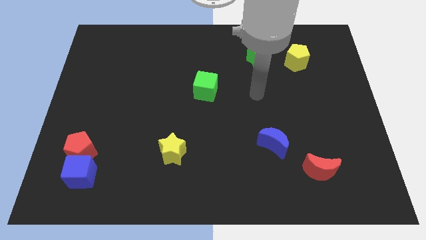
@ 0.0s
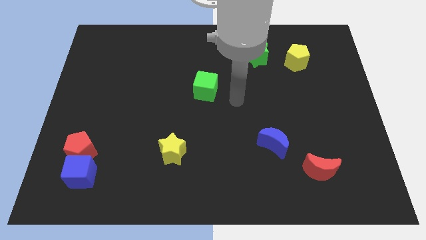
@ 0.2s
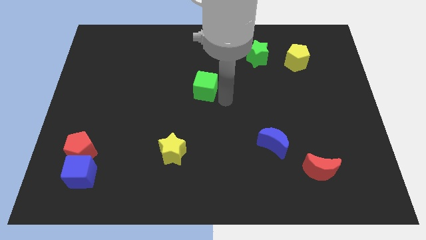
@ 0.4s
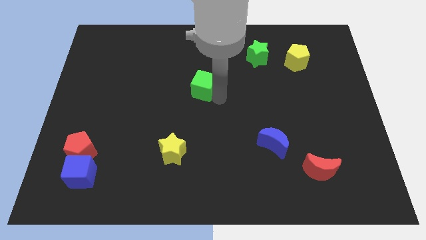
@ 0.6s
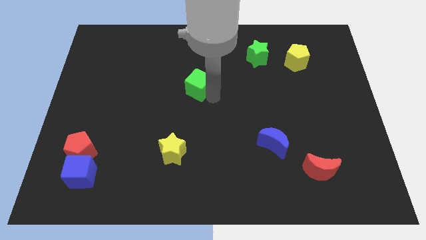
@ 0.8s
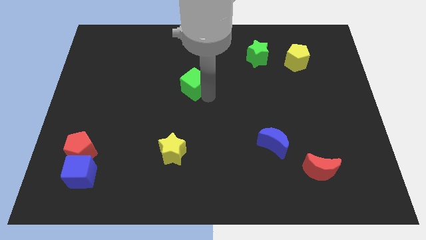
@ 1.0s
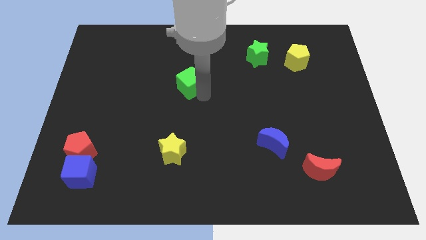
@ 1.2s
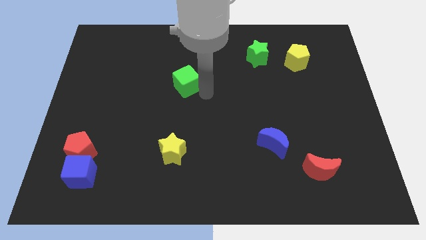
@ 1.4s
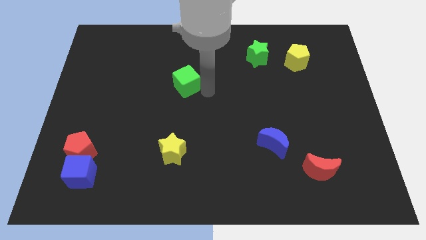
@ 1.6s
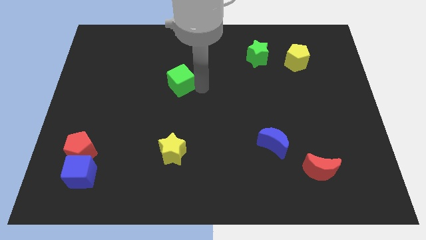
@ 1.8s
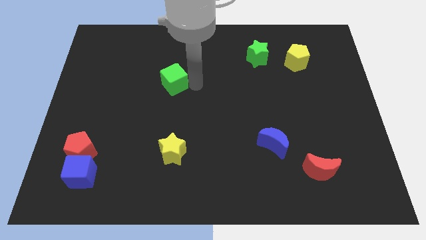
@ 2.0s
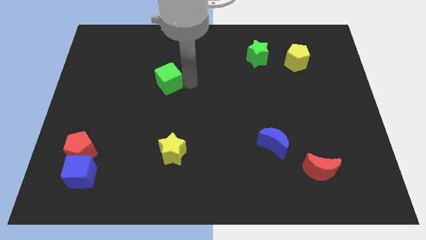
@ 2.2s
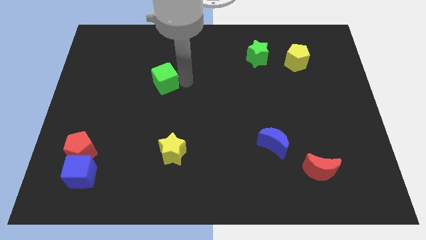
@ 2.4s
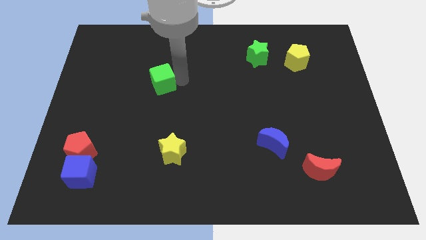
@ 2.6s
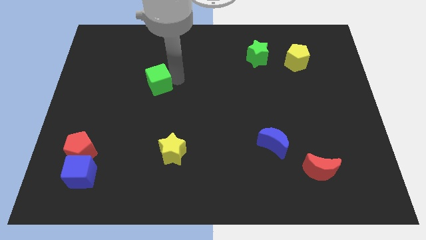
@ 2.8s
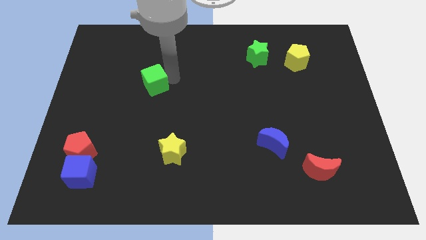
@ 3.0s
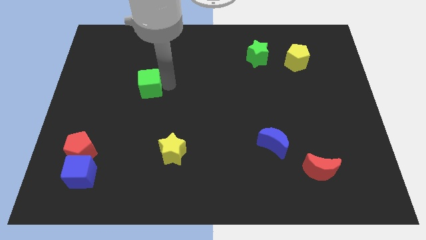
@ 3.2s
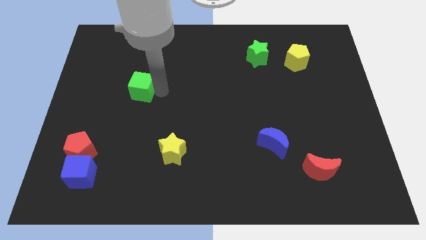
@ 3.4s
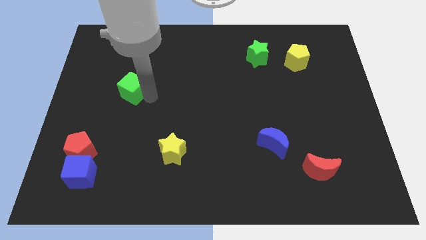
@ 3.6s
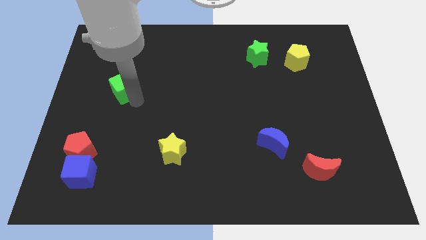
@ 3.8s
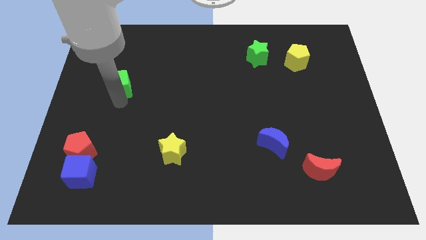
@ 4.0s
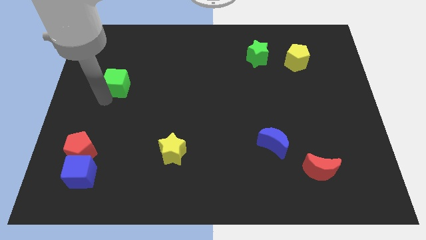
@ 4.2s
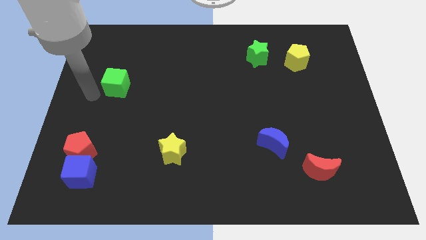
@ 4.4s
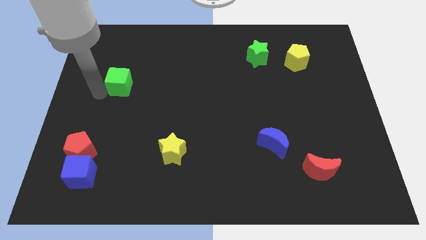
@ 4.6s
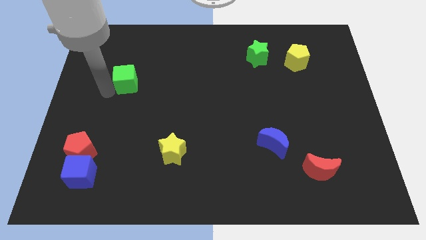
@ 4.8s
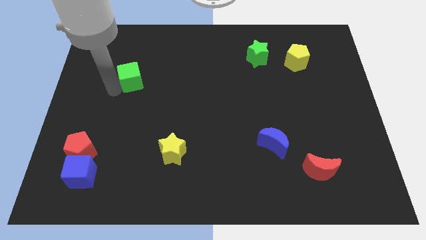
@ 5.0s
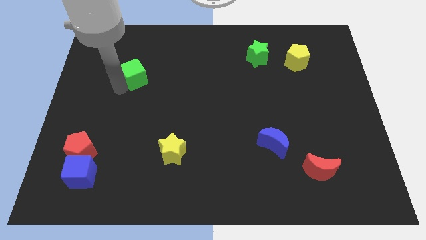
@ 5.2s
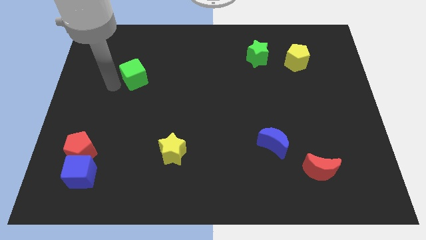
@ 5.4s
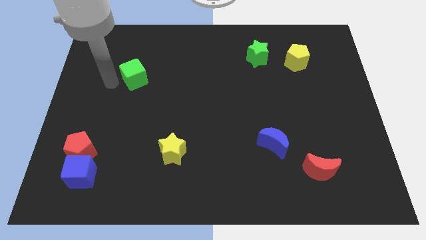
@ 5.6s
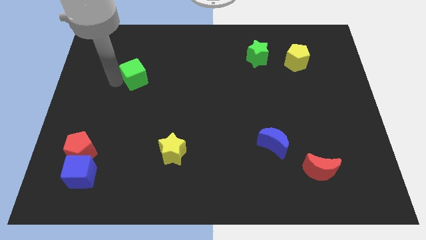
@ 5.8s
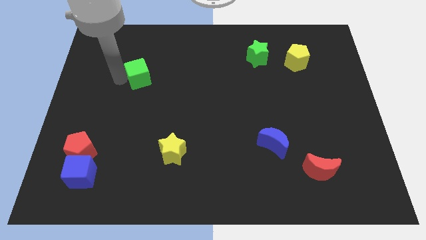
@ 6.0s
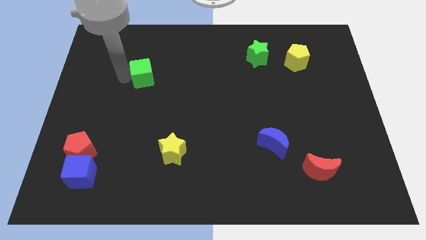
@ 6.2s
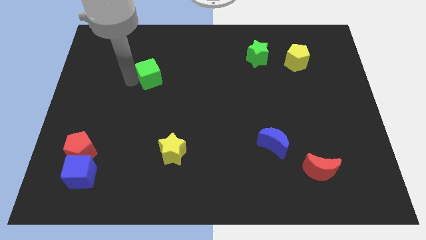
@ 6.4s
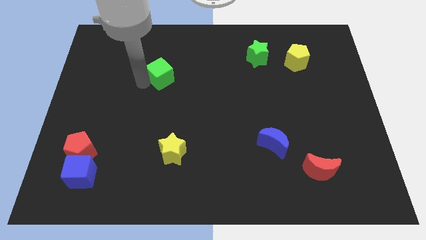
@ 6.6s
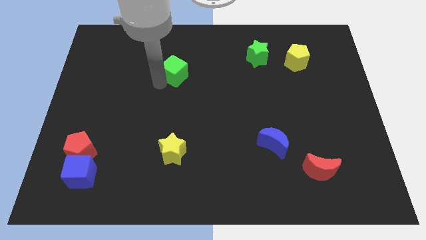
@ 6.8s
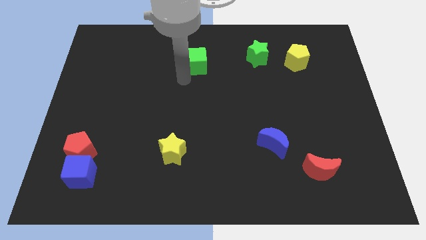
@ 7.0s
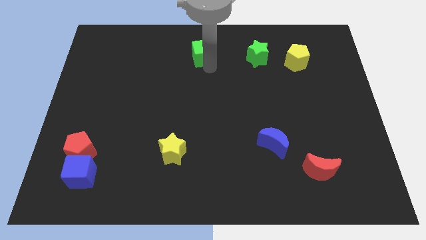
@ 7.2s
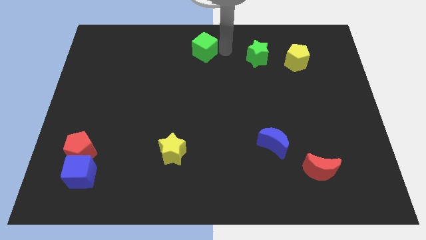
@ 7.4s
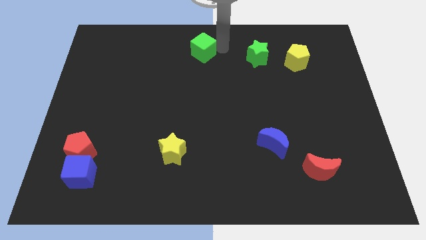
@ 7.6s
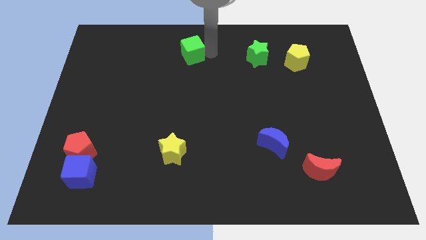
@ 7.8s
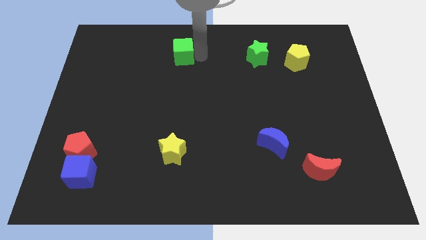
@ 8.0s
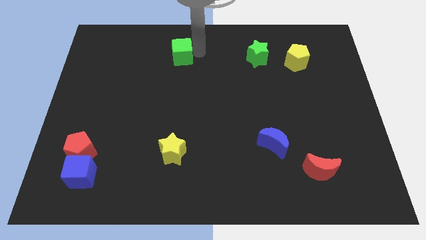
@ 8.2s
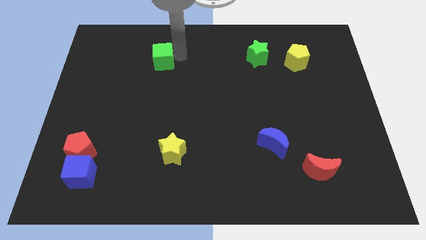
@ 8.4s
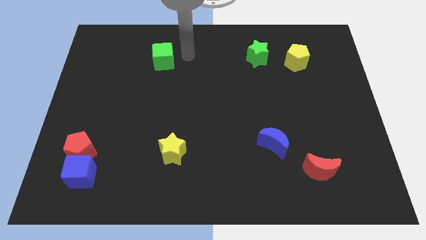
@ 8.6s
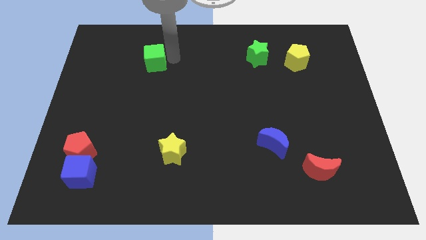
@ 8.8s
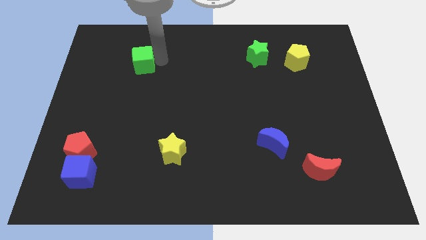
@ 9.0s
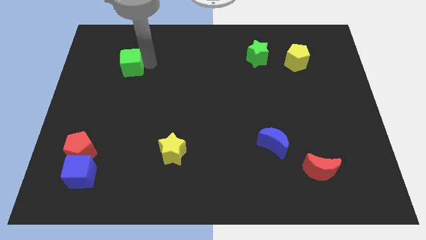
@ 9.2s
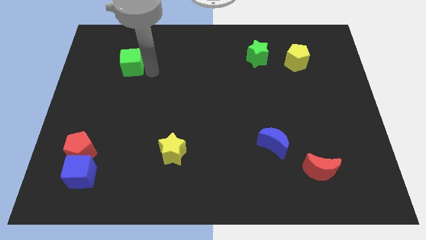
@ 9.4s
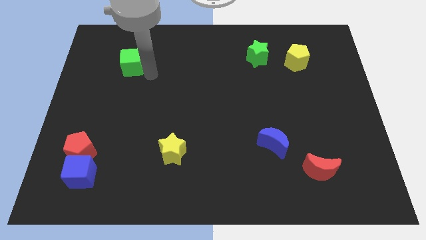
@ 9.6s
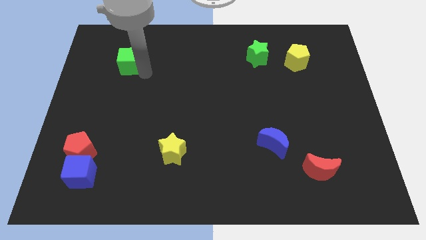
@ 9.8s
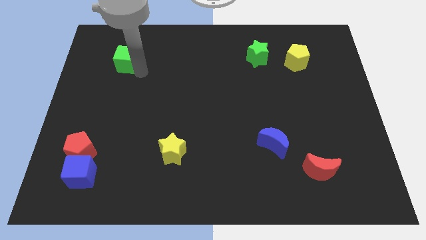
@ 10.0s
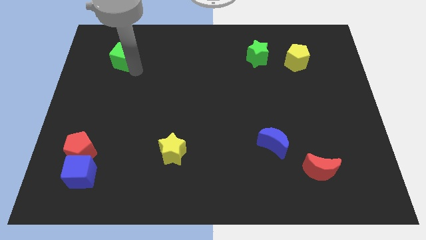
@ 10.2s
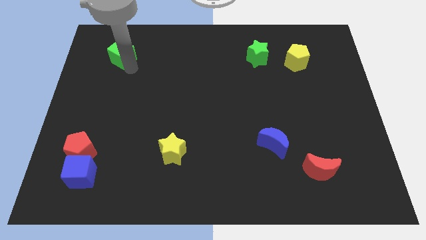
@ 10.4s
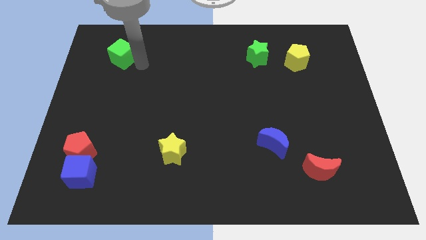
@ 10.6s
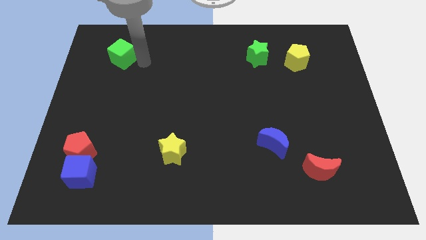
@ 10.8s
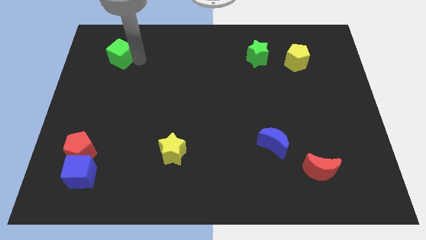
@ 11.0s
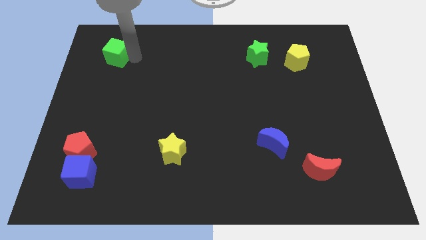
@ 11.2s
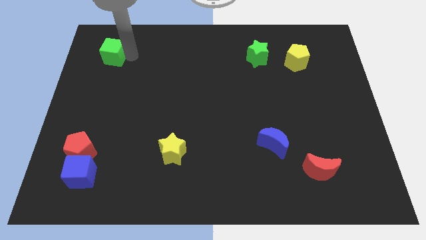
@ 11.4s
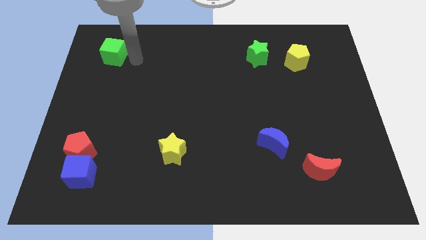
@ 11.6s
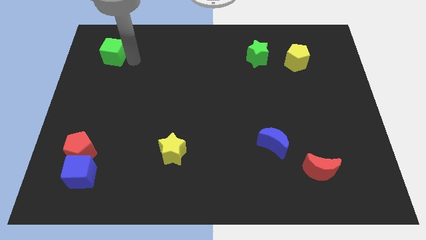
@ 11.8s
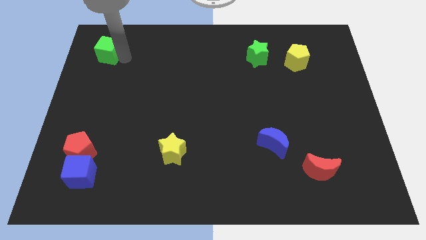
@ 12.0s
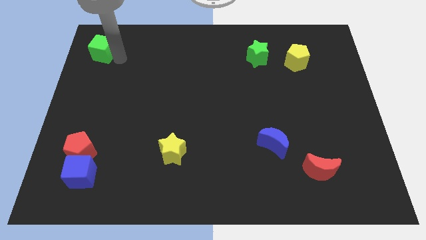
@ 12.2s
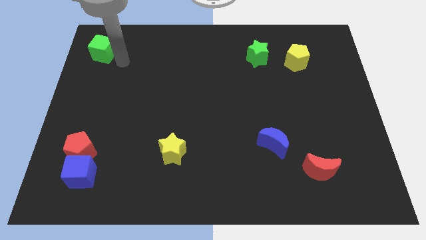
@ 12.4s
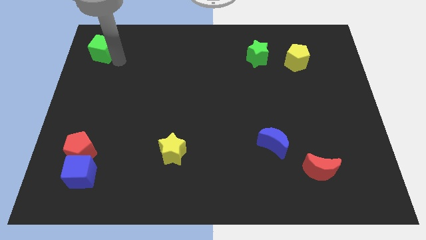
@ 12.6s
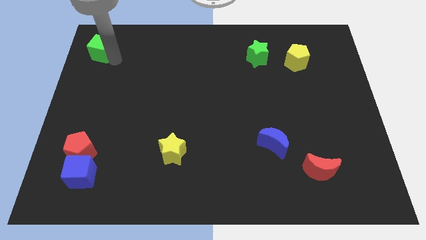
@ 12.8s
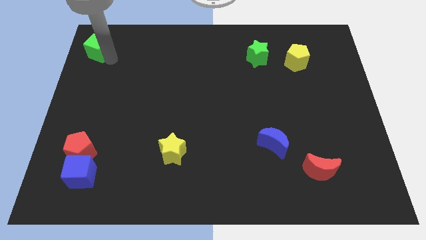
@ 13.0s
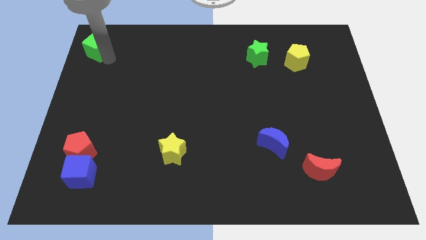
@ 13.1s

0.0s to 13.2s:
move the green cube to the upper left corner
